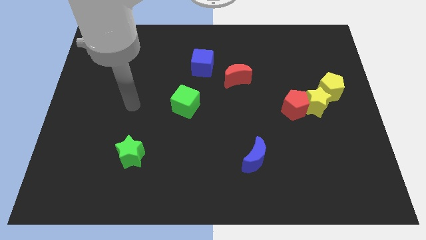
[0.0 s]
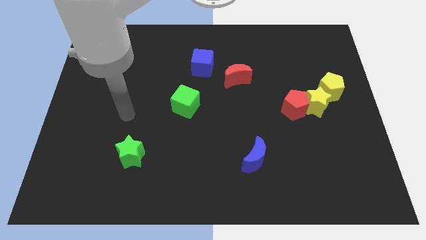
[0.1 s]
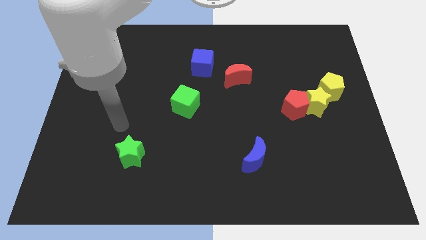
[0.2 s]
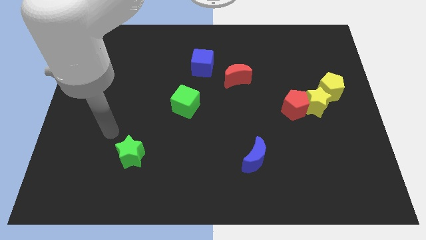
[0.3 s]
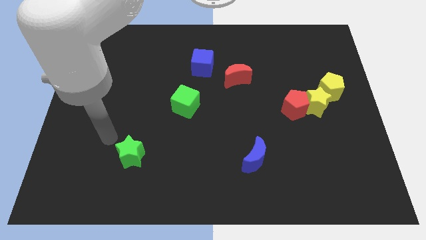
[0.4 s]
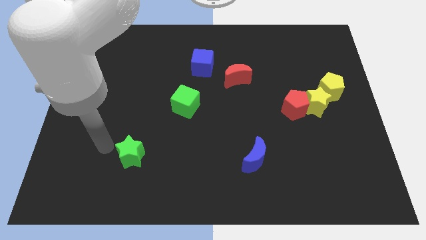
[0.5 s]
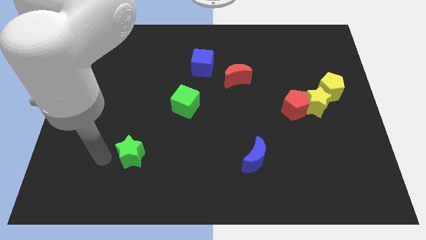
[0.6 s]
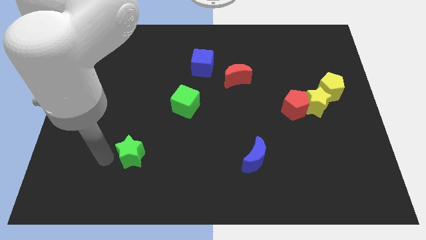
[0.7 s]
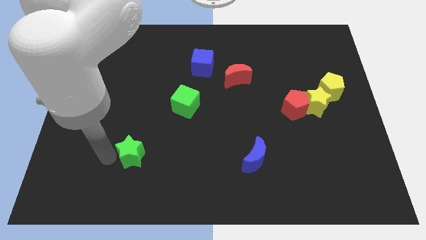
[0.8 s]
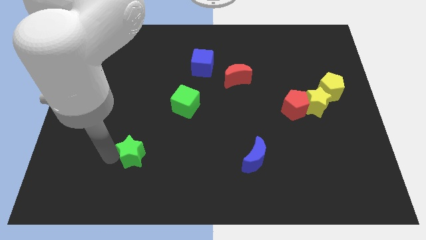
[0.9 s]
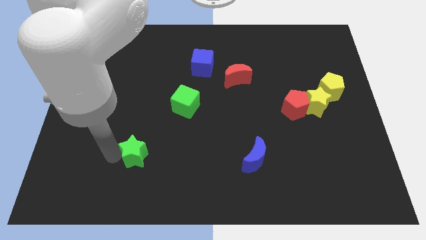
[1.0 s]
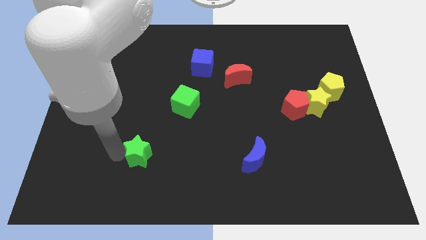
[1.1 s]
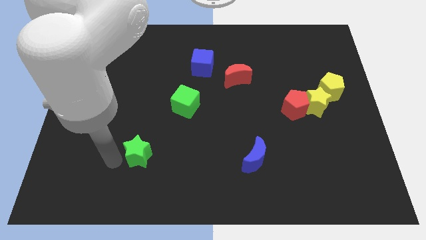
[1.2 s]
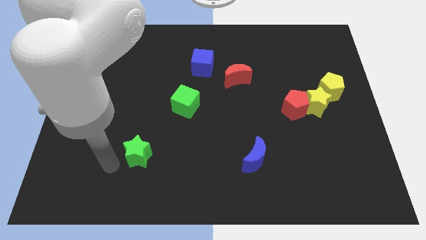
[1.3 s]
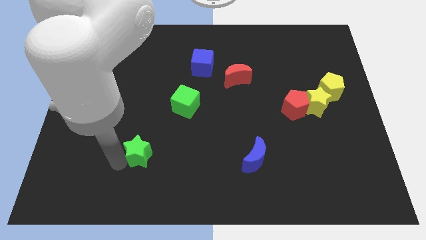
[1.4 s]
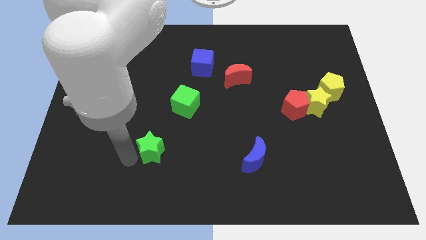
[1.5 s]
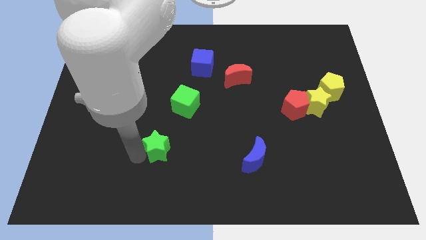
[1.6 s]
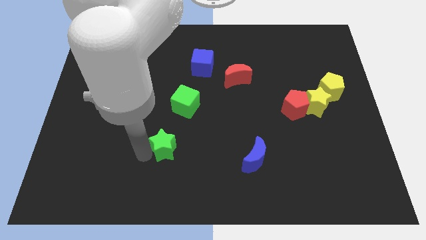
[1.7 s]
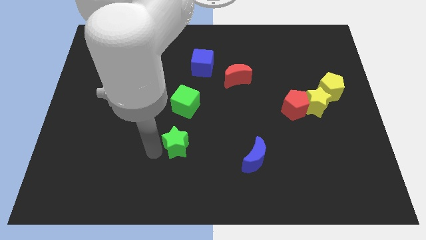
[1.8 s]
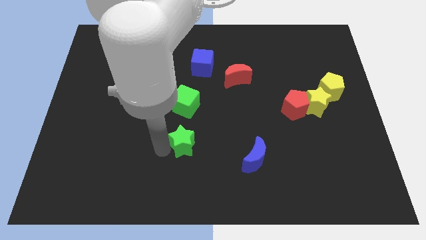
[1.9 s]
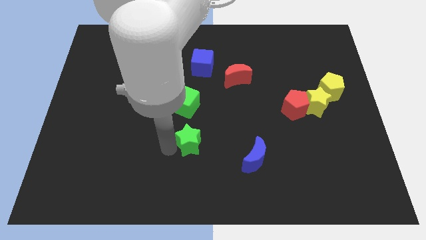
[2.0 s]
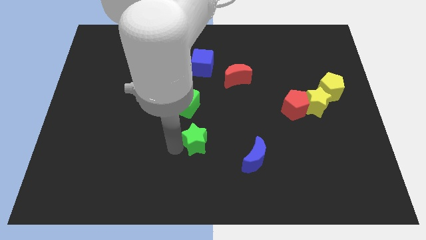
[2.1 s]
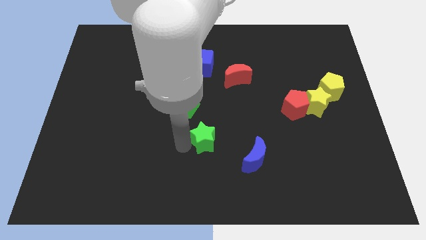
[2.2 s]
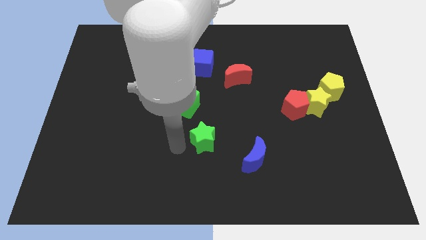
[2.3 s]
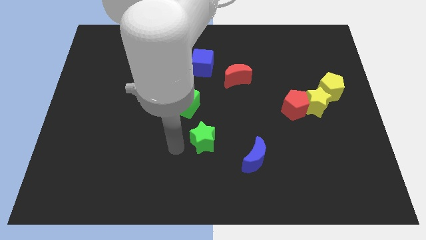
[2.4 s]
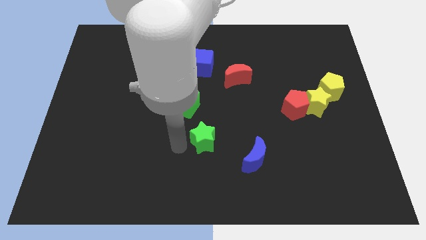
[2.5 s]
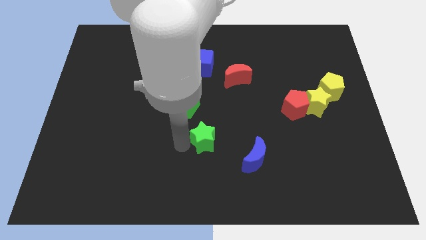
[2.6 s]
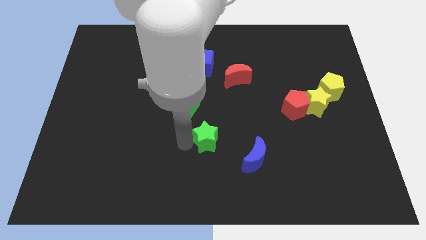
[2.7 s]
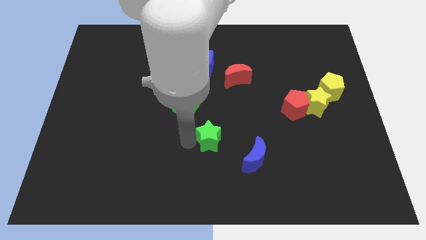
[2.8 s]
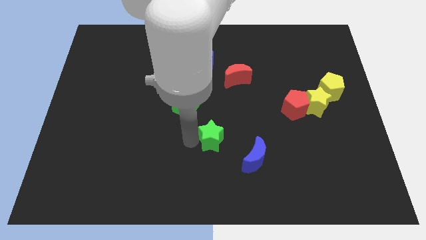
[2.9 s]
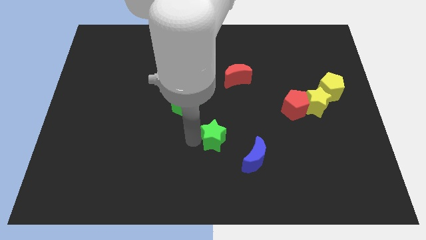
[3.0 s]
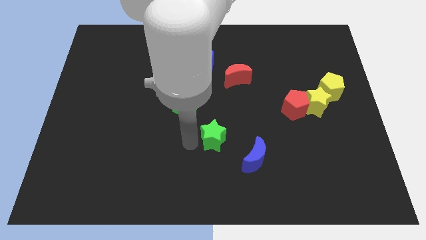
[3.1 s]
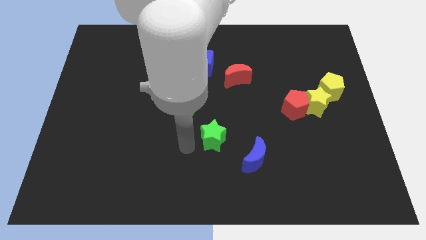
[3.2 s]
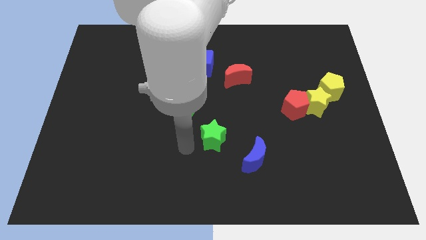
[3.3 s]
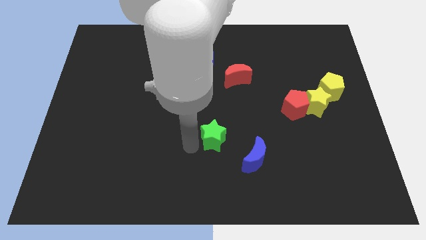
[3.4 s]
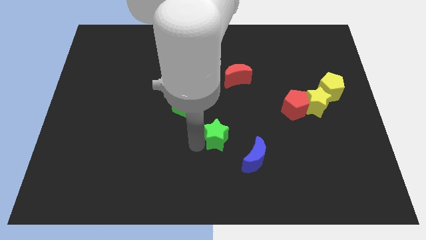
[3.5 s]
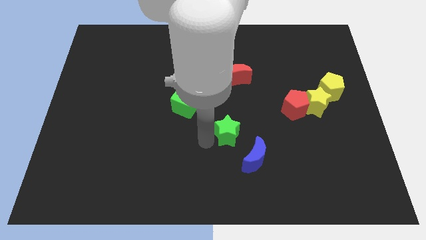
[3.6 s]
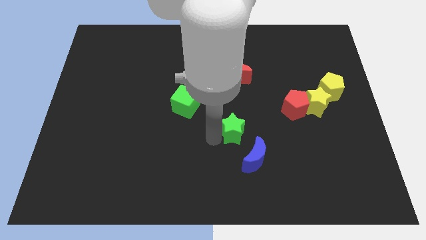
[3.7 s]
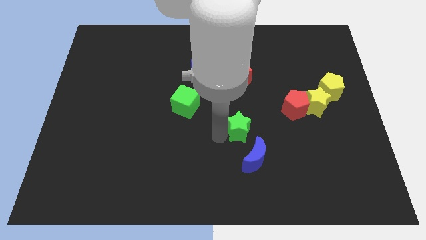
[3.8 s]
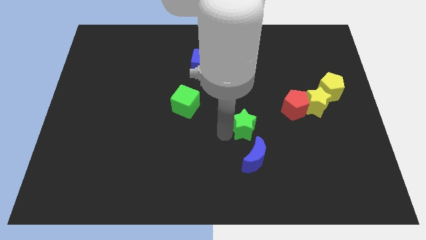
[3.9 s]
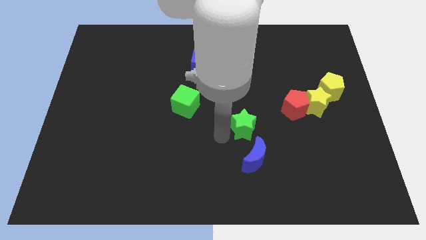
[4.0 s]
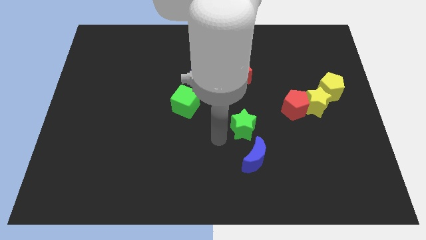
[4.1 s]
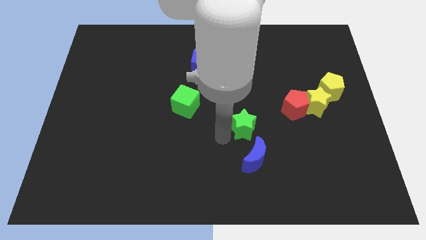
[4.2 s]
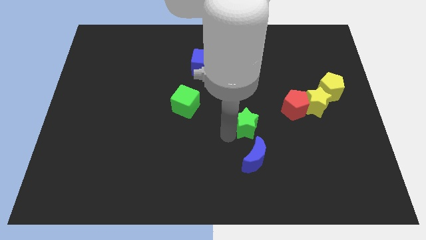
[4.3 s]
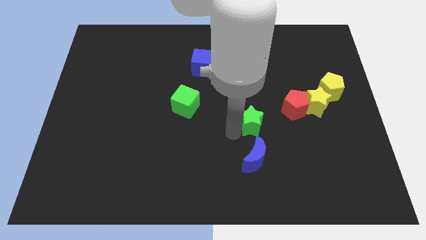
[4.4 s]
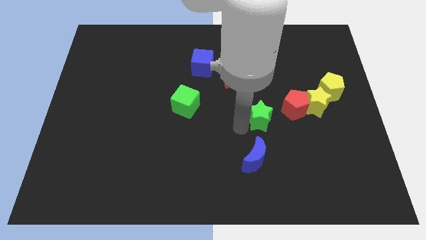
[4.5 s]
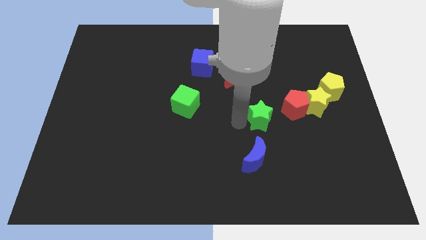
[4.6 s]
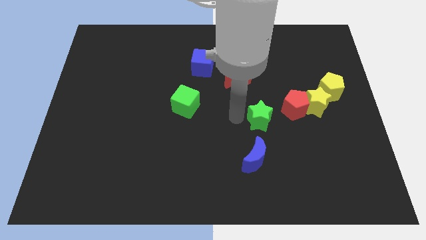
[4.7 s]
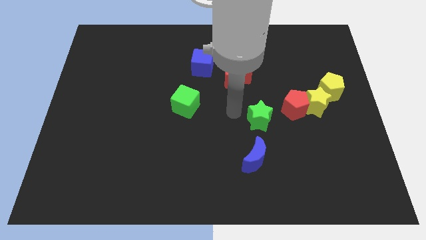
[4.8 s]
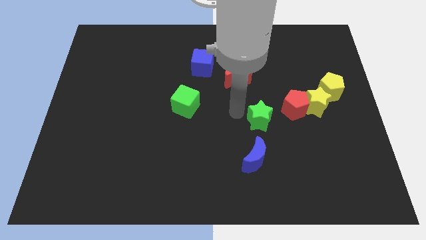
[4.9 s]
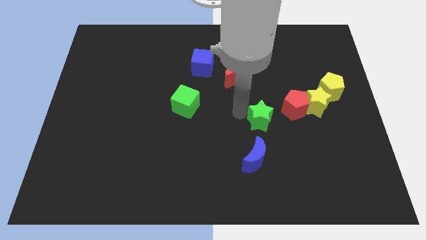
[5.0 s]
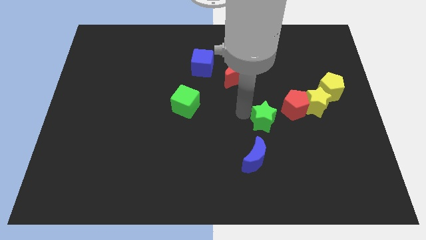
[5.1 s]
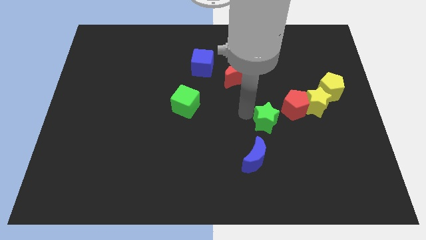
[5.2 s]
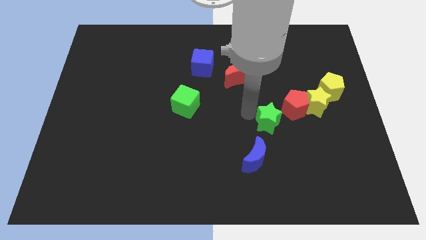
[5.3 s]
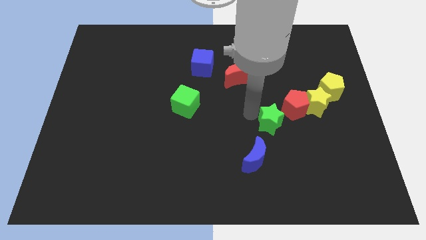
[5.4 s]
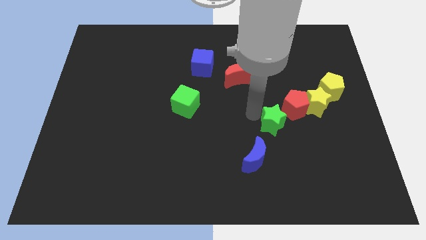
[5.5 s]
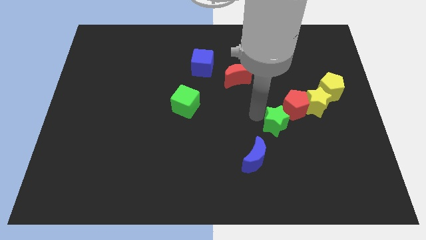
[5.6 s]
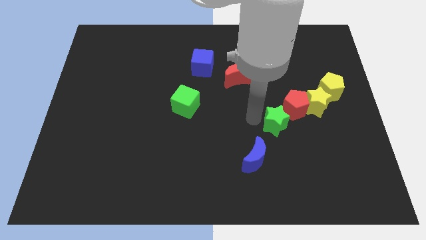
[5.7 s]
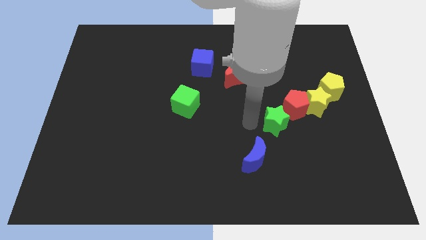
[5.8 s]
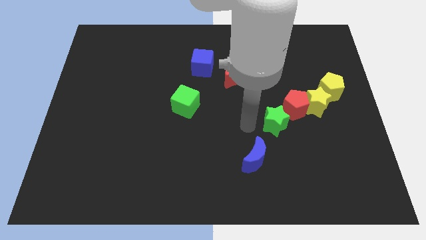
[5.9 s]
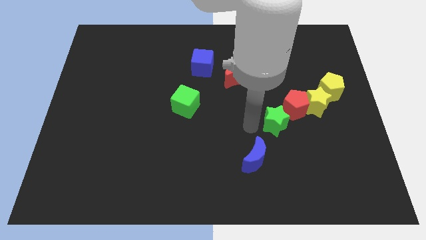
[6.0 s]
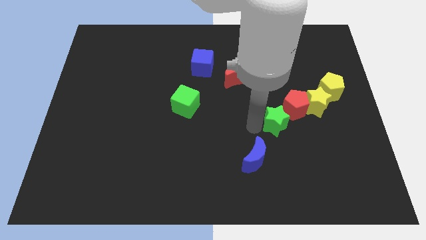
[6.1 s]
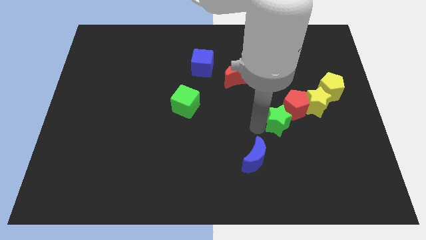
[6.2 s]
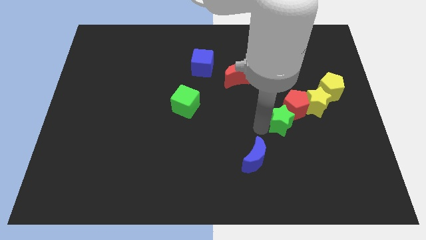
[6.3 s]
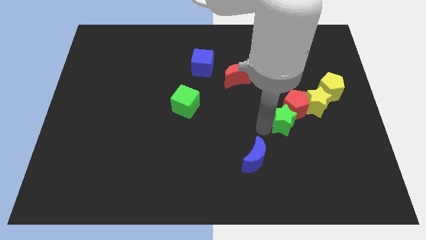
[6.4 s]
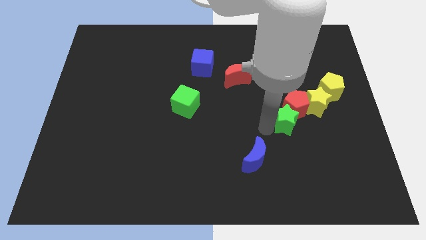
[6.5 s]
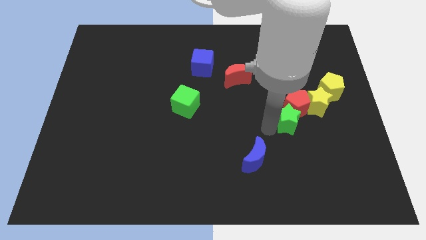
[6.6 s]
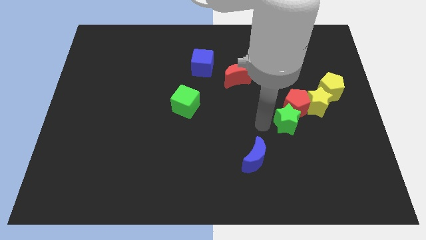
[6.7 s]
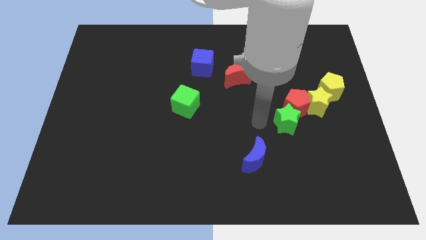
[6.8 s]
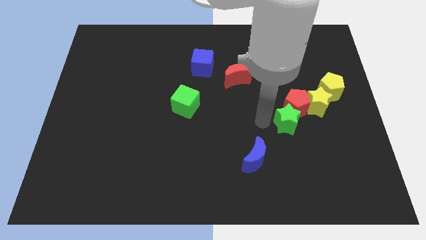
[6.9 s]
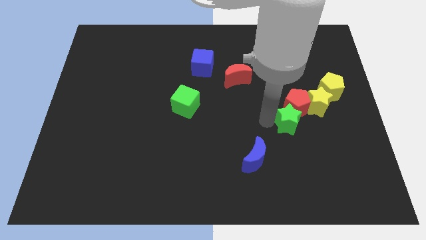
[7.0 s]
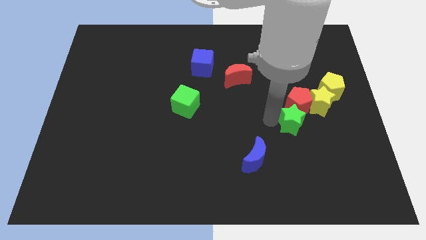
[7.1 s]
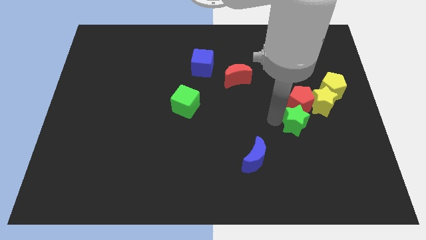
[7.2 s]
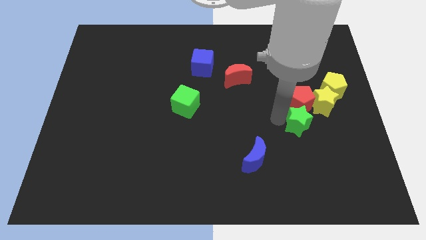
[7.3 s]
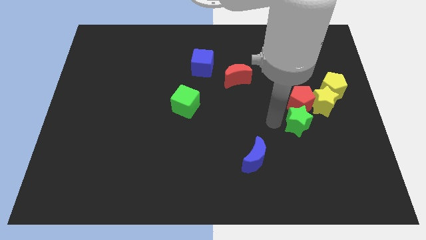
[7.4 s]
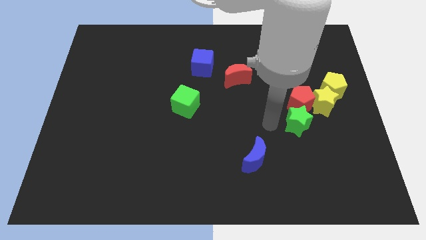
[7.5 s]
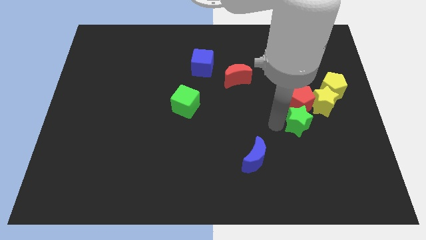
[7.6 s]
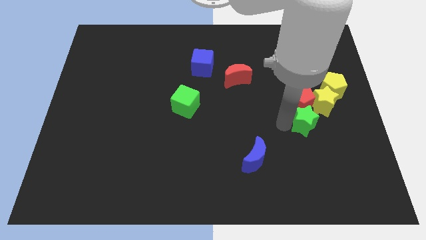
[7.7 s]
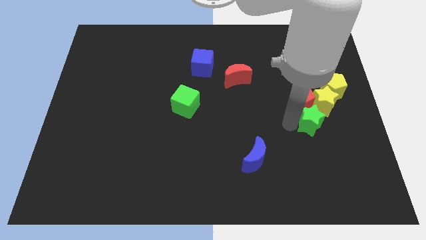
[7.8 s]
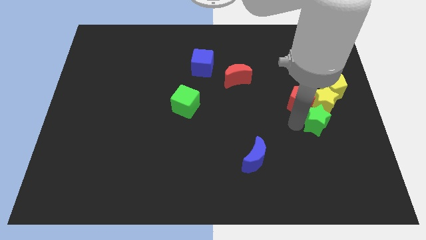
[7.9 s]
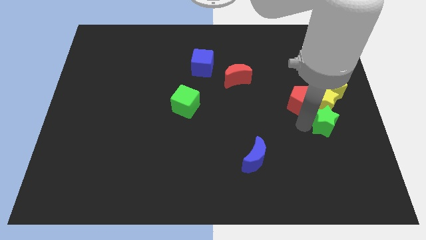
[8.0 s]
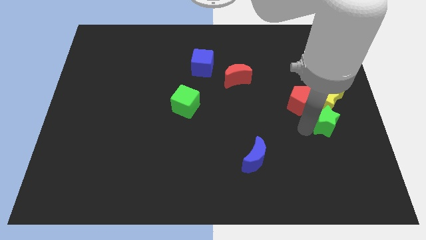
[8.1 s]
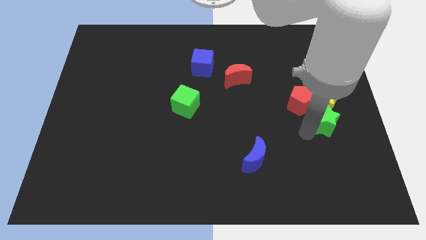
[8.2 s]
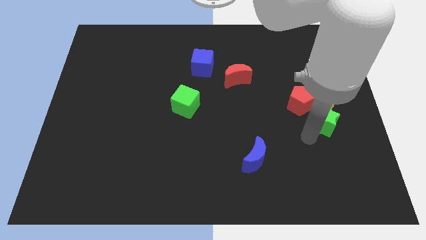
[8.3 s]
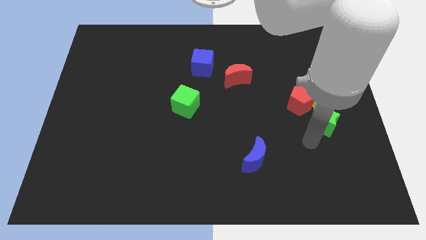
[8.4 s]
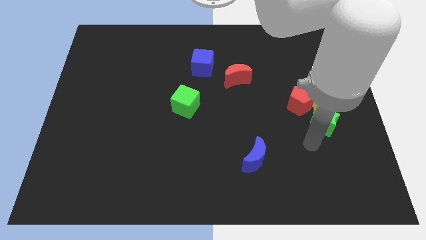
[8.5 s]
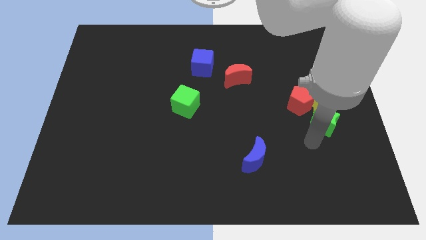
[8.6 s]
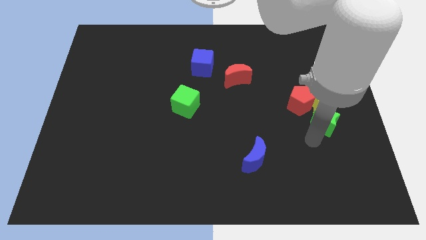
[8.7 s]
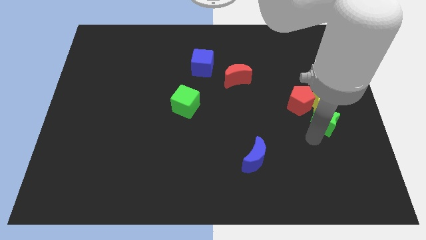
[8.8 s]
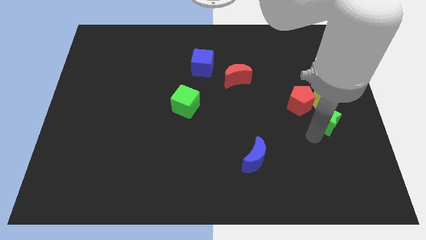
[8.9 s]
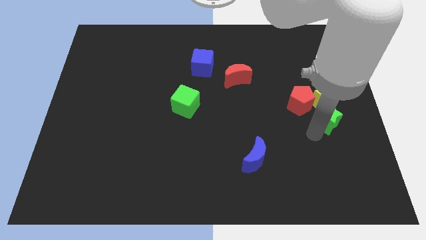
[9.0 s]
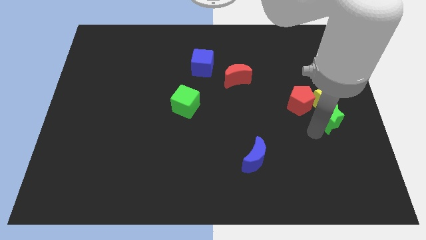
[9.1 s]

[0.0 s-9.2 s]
put the green star to the right side
